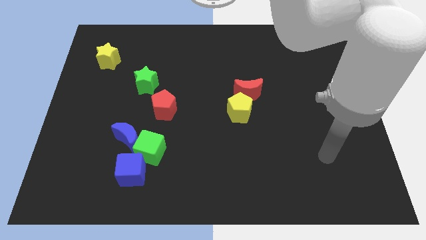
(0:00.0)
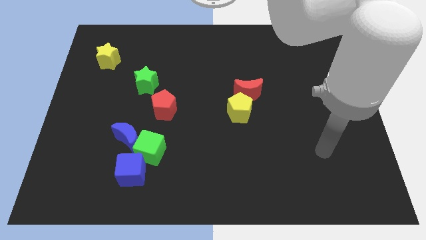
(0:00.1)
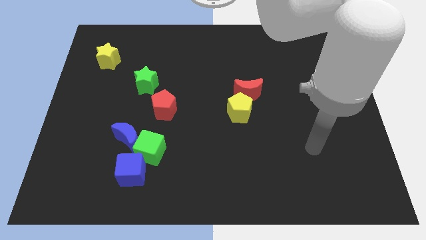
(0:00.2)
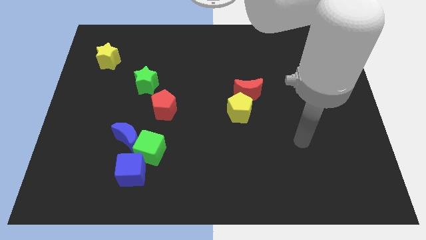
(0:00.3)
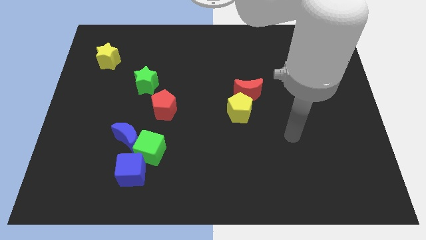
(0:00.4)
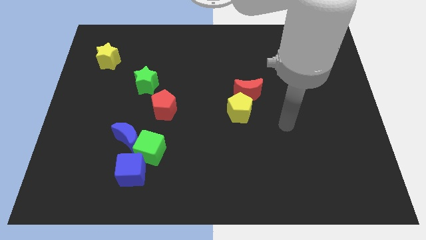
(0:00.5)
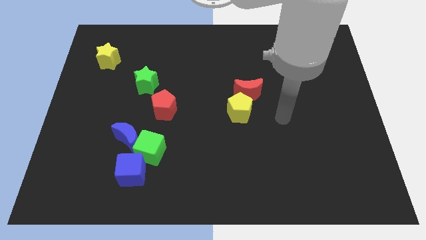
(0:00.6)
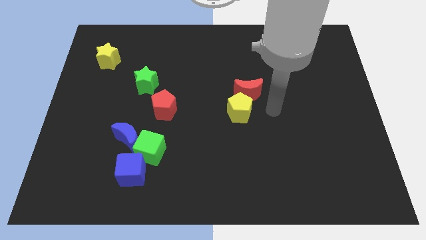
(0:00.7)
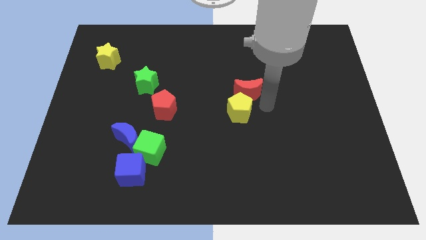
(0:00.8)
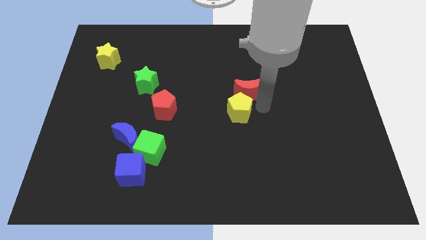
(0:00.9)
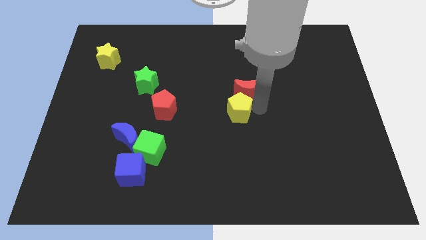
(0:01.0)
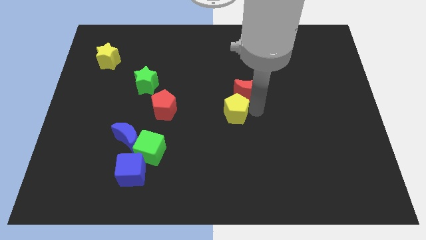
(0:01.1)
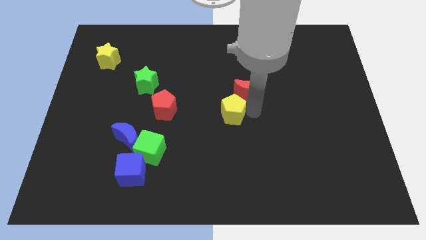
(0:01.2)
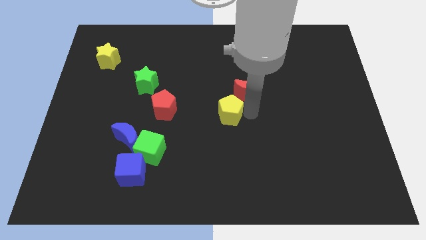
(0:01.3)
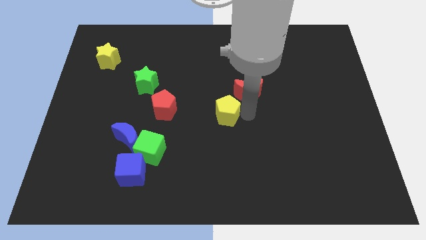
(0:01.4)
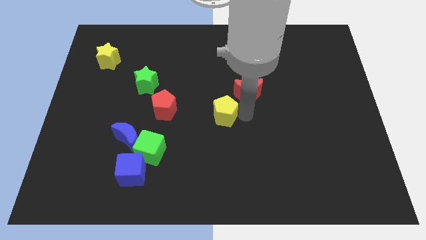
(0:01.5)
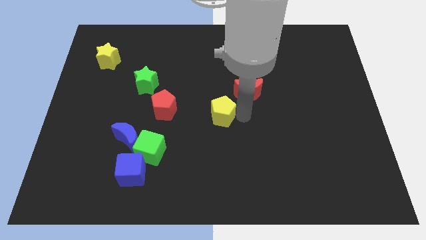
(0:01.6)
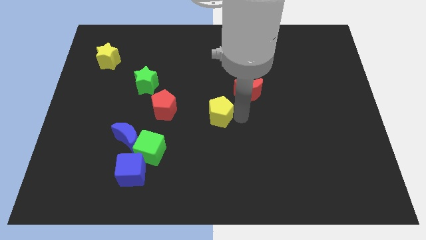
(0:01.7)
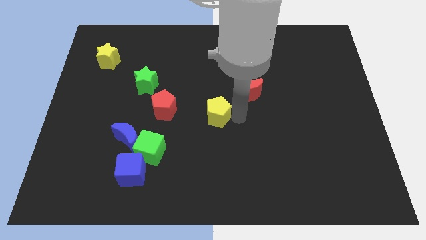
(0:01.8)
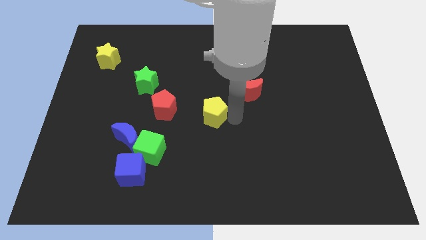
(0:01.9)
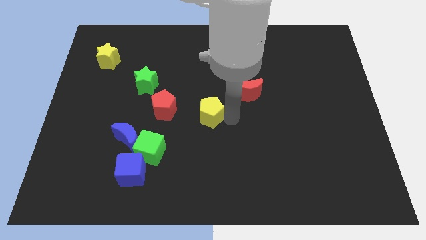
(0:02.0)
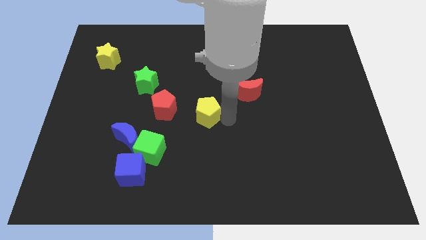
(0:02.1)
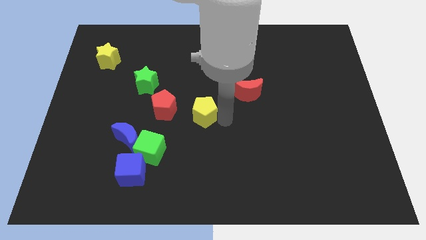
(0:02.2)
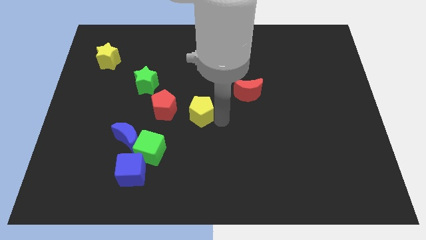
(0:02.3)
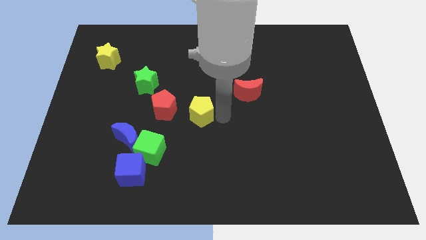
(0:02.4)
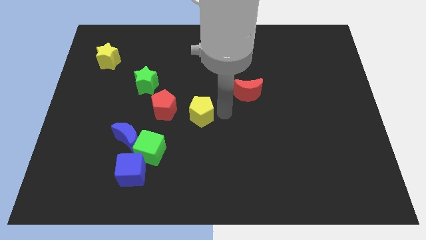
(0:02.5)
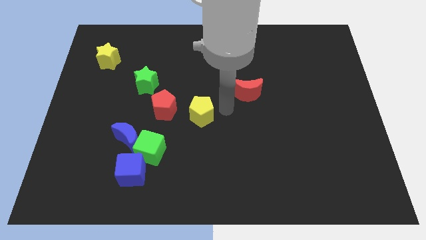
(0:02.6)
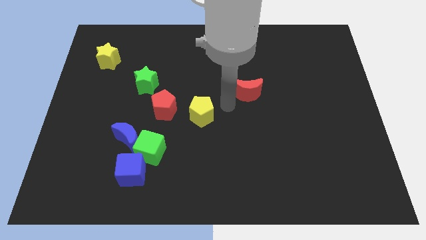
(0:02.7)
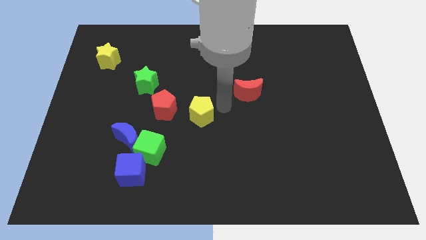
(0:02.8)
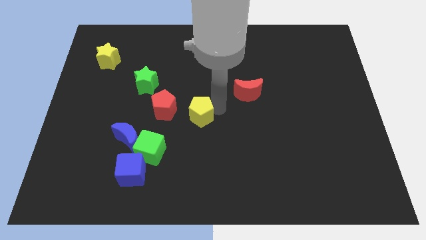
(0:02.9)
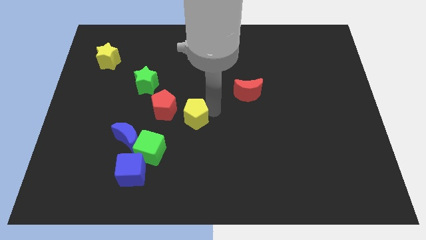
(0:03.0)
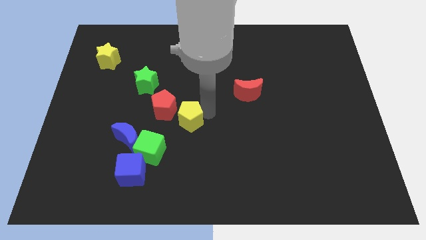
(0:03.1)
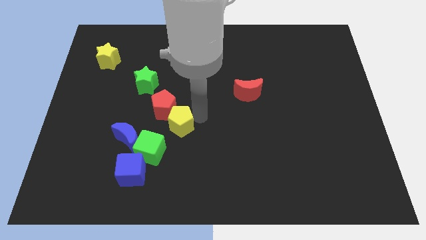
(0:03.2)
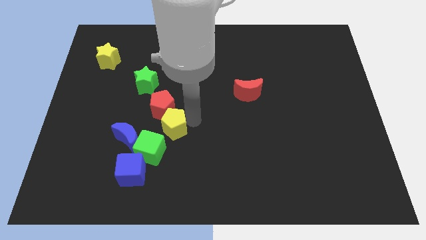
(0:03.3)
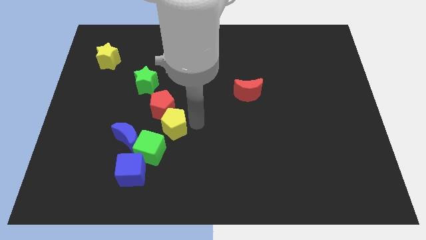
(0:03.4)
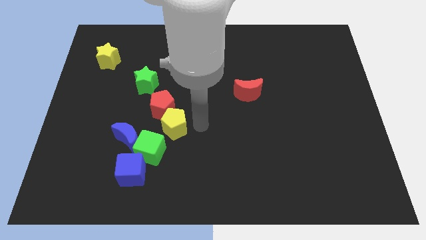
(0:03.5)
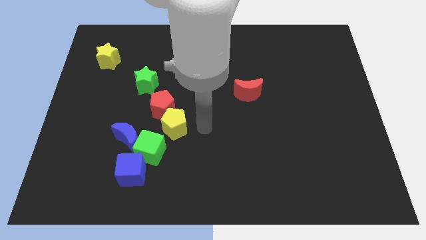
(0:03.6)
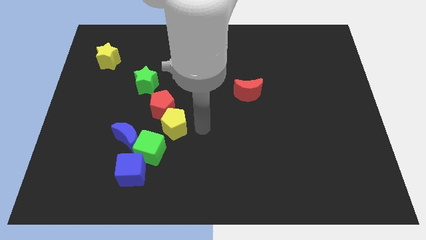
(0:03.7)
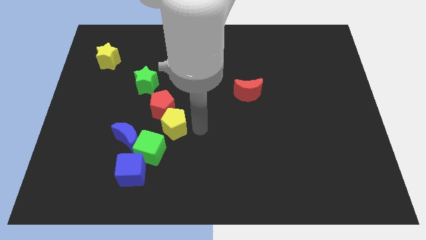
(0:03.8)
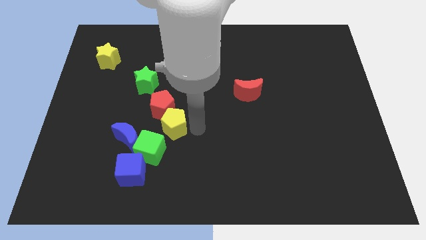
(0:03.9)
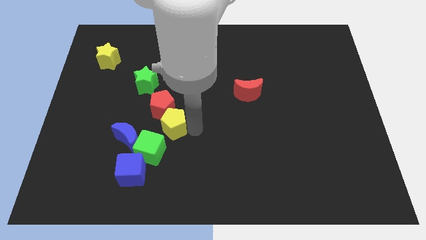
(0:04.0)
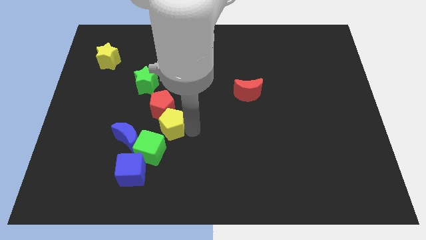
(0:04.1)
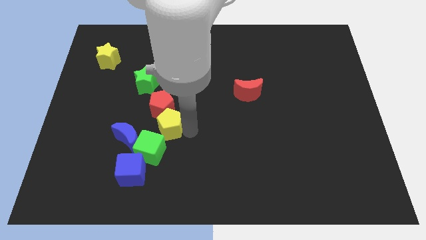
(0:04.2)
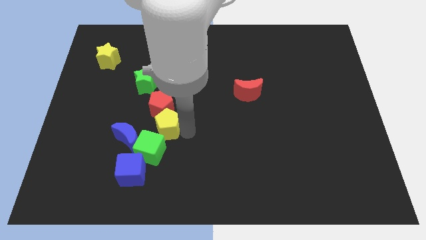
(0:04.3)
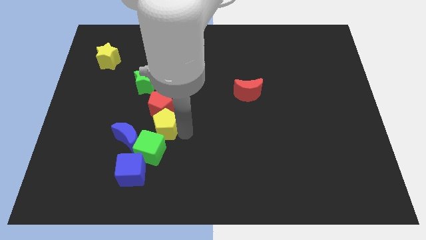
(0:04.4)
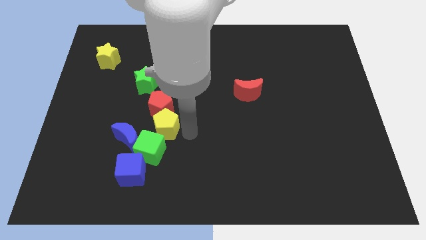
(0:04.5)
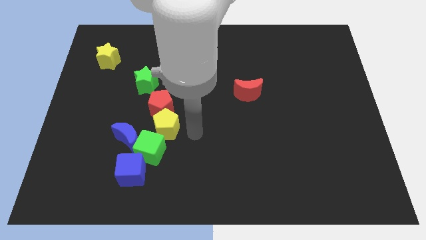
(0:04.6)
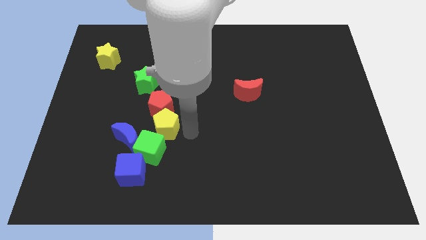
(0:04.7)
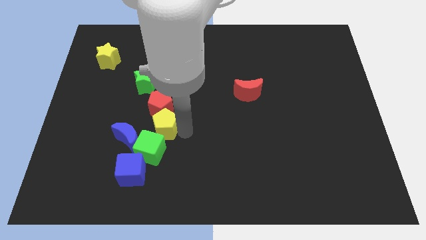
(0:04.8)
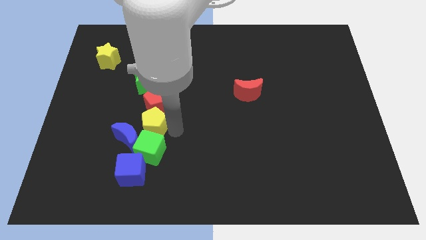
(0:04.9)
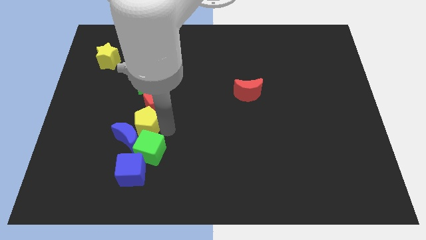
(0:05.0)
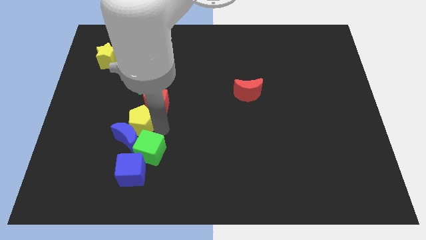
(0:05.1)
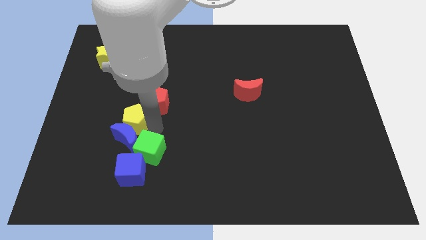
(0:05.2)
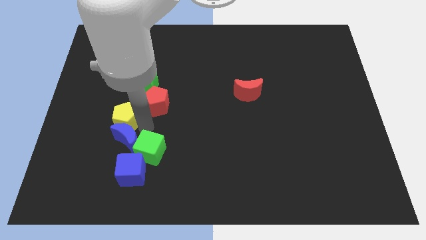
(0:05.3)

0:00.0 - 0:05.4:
put the yellow pentagon just left of the red pentagon

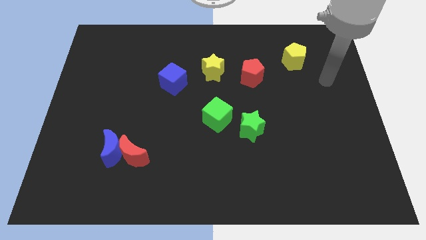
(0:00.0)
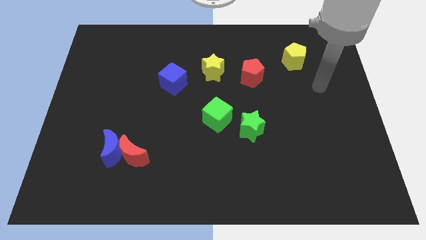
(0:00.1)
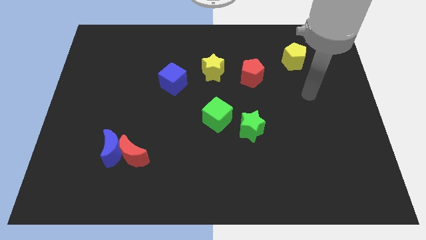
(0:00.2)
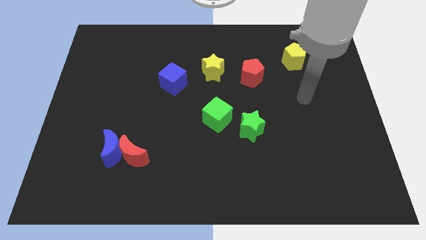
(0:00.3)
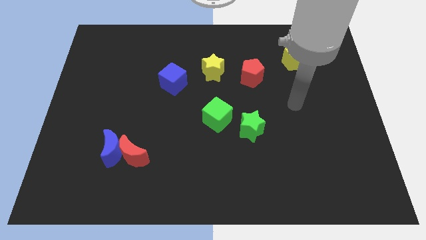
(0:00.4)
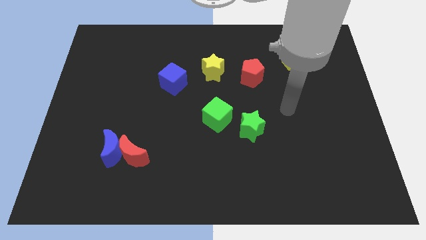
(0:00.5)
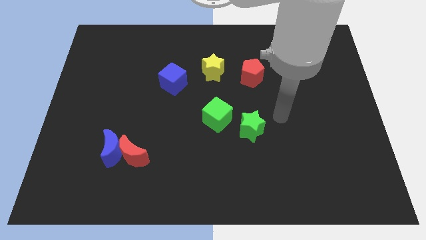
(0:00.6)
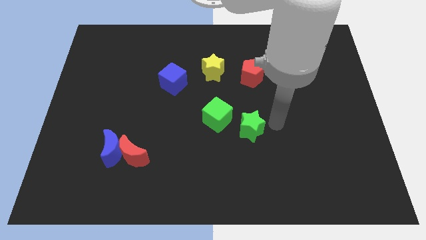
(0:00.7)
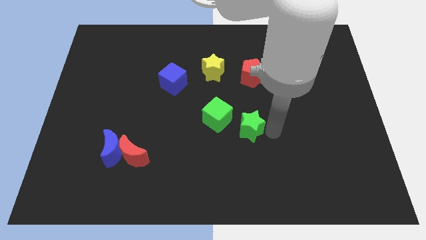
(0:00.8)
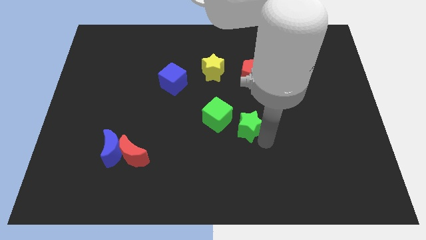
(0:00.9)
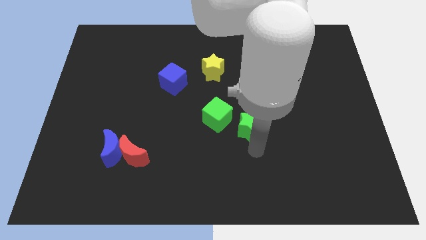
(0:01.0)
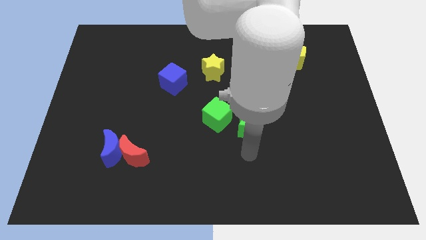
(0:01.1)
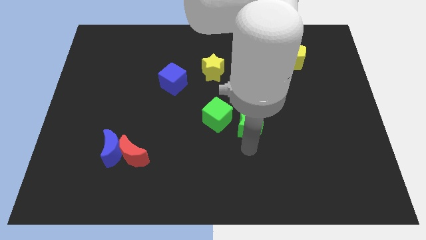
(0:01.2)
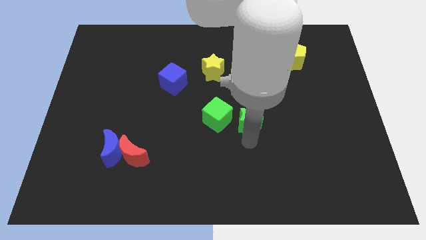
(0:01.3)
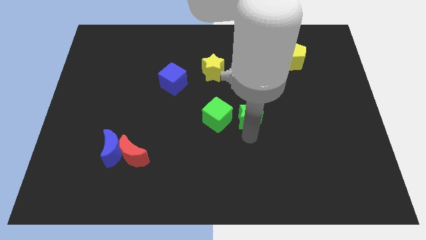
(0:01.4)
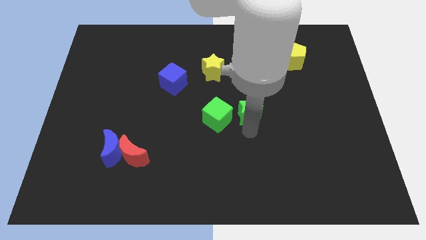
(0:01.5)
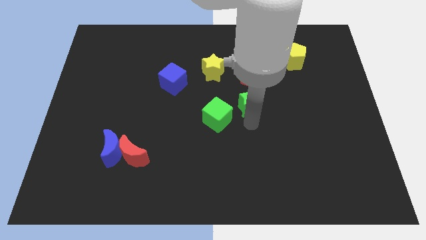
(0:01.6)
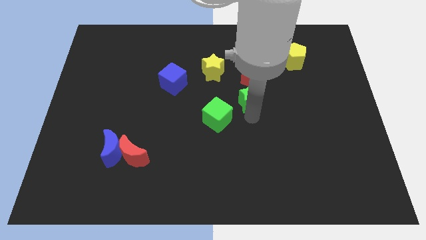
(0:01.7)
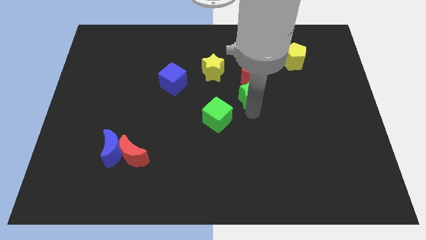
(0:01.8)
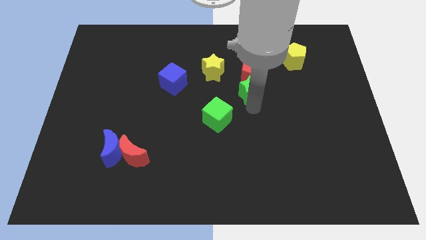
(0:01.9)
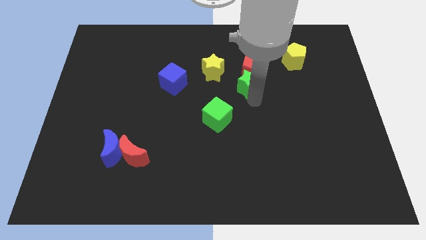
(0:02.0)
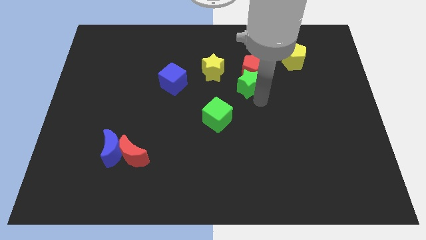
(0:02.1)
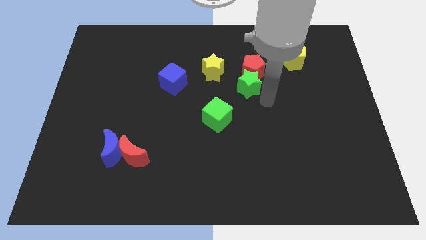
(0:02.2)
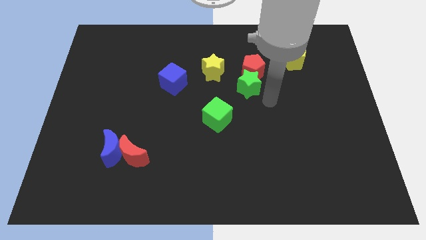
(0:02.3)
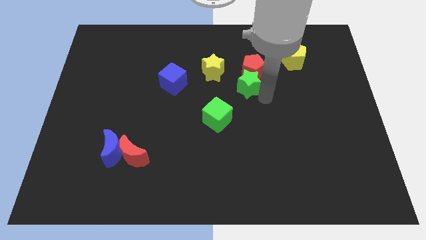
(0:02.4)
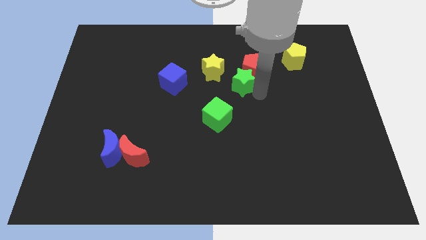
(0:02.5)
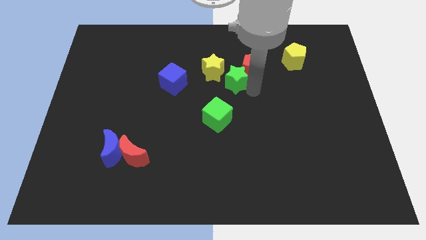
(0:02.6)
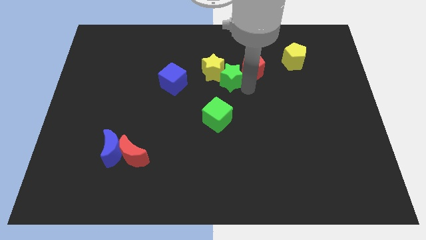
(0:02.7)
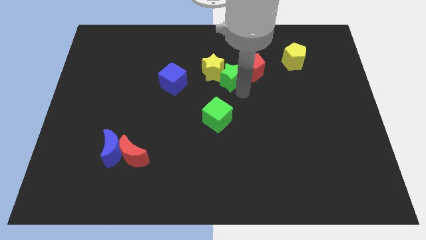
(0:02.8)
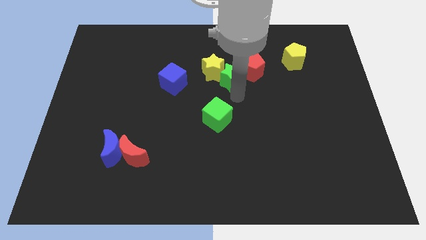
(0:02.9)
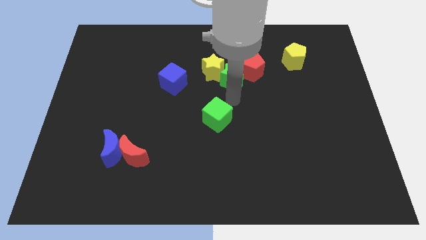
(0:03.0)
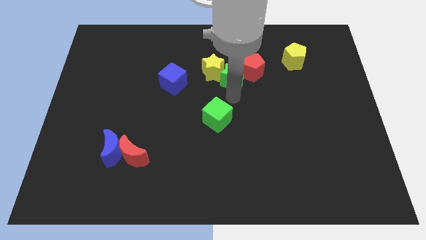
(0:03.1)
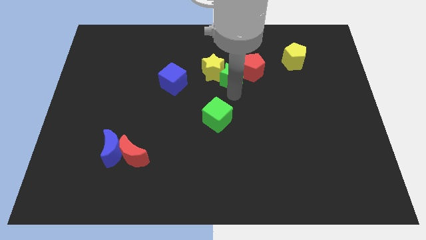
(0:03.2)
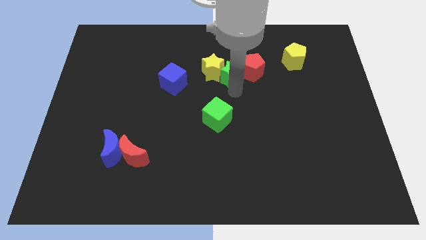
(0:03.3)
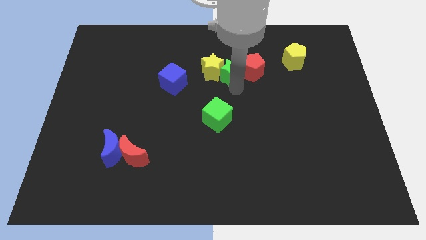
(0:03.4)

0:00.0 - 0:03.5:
push the green star to the top left side of the red pentagon
